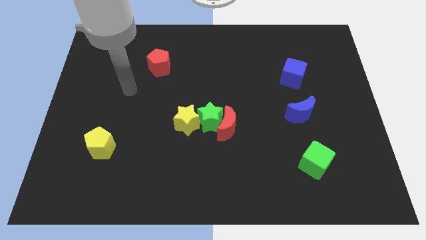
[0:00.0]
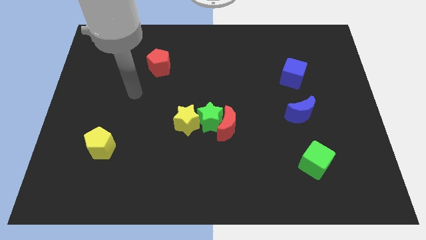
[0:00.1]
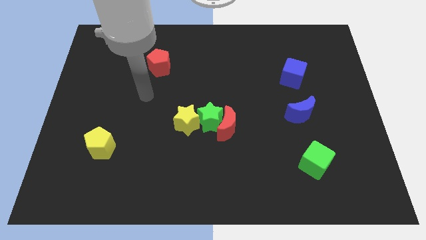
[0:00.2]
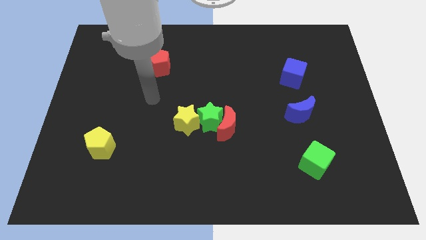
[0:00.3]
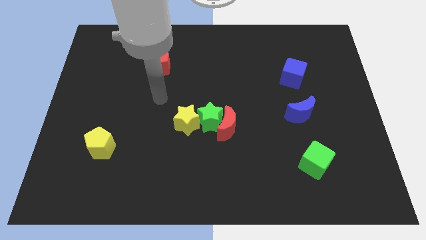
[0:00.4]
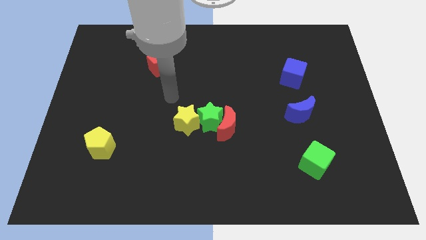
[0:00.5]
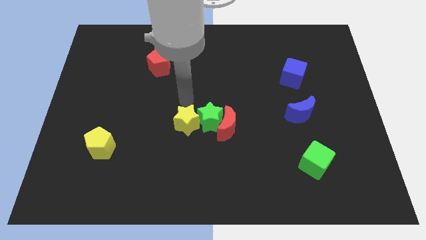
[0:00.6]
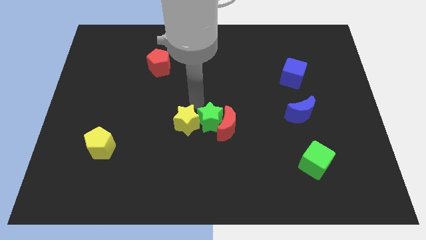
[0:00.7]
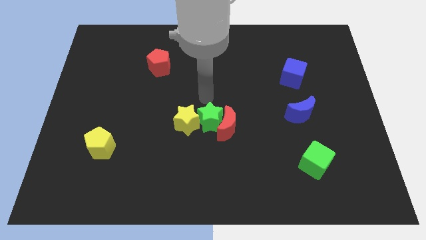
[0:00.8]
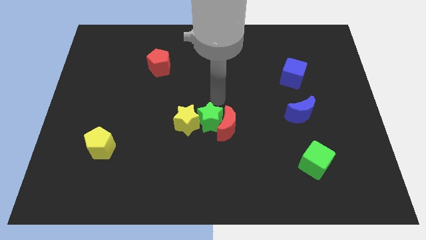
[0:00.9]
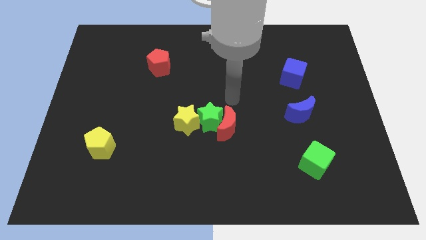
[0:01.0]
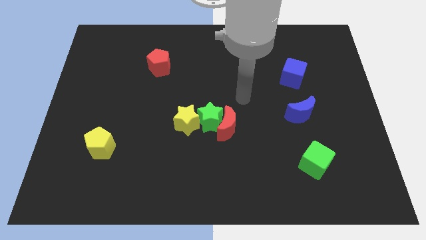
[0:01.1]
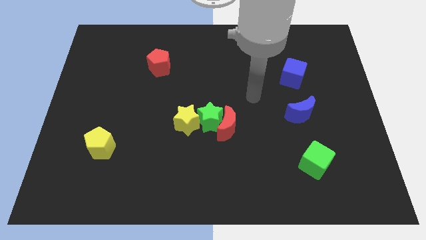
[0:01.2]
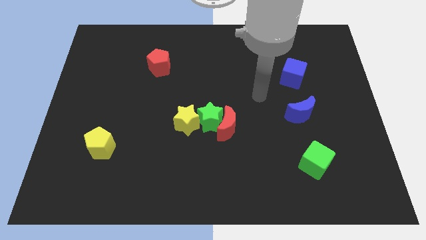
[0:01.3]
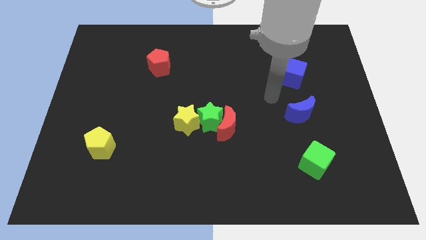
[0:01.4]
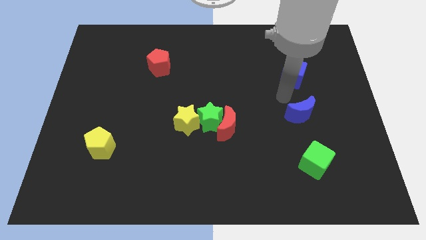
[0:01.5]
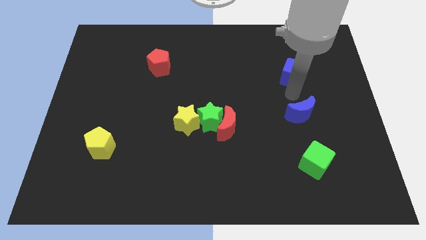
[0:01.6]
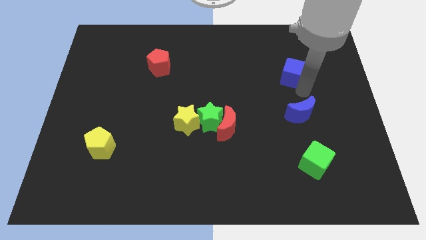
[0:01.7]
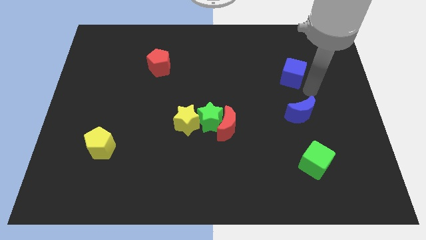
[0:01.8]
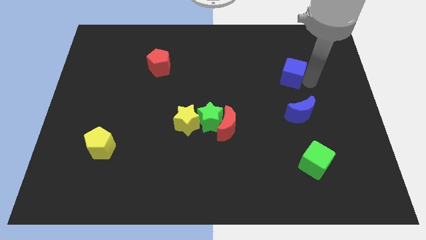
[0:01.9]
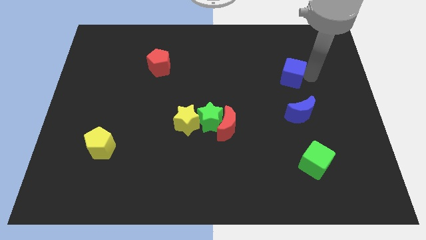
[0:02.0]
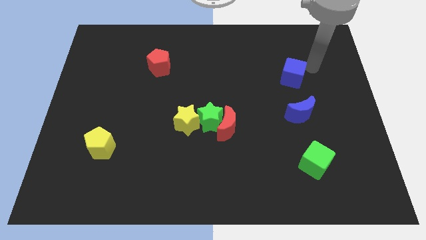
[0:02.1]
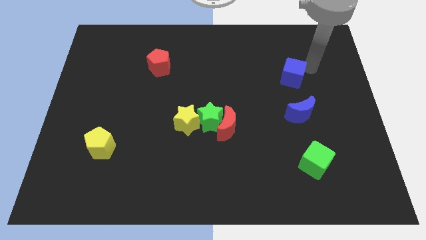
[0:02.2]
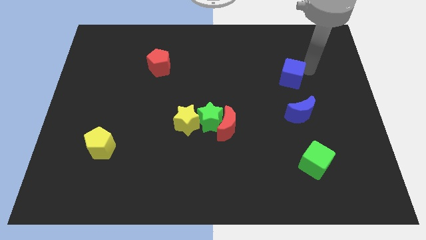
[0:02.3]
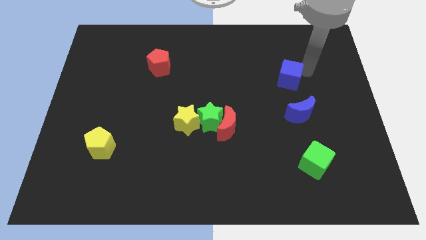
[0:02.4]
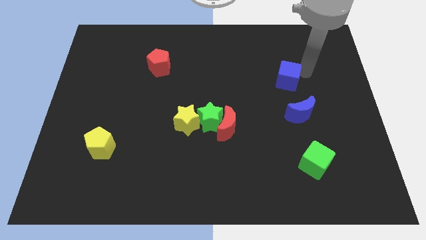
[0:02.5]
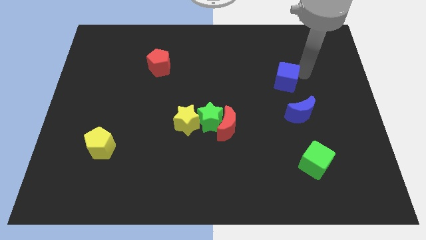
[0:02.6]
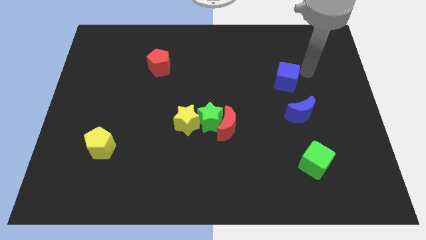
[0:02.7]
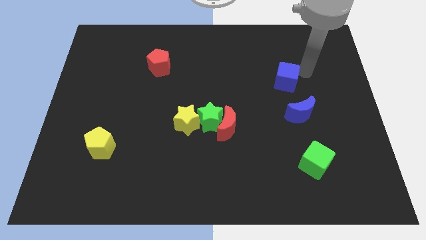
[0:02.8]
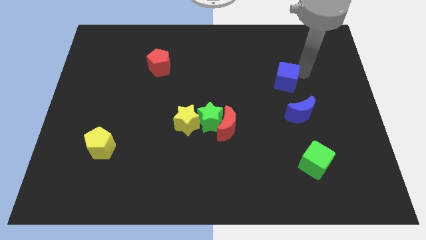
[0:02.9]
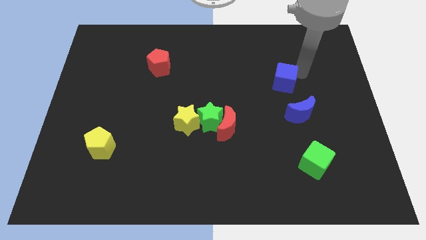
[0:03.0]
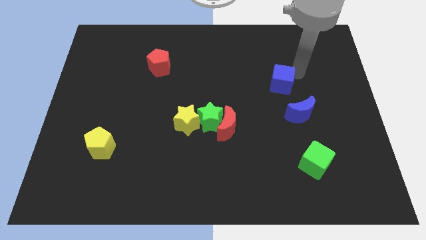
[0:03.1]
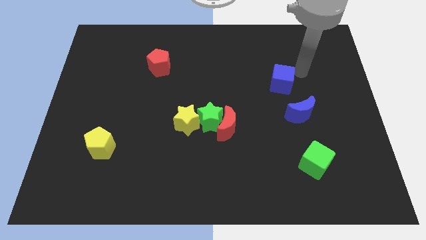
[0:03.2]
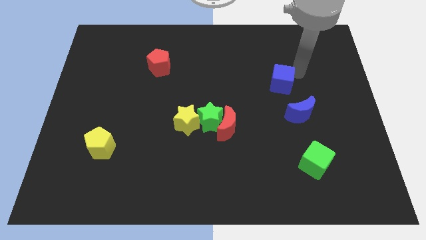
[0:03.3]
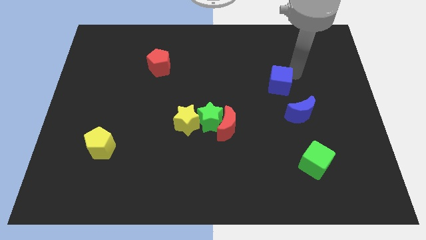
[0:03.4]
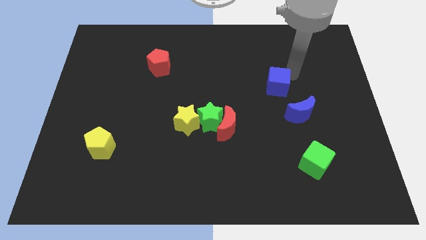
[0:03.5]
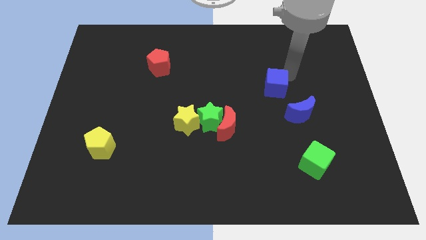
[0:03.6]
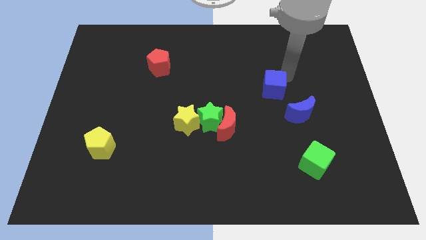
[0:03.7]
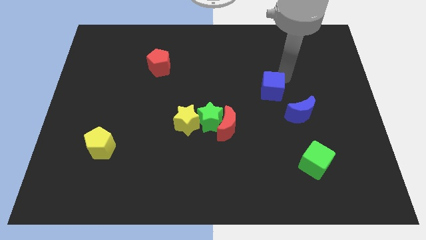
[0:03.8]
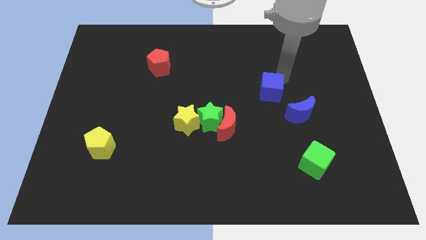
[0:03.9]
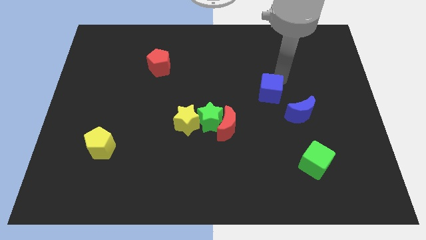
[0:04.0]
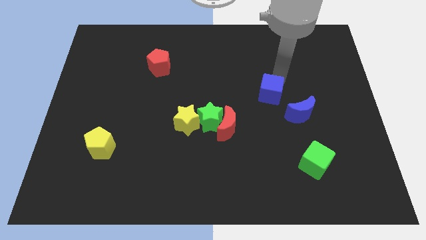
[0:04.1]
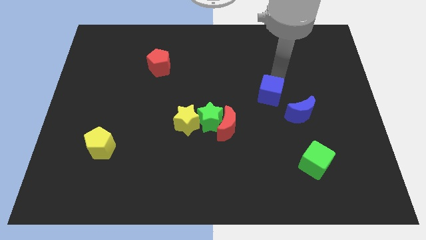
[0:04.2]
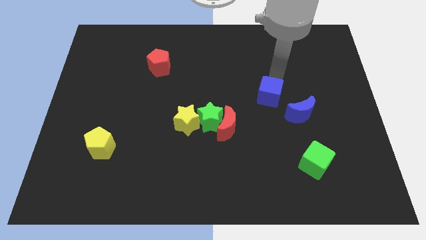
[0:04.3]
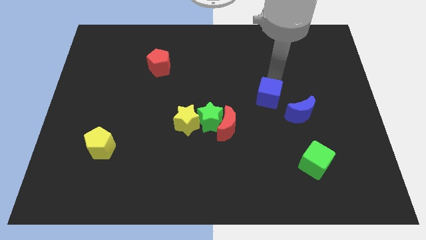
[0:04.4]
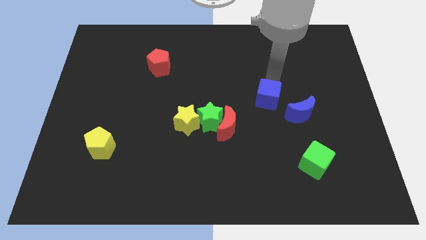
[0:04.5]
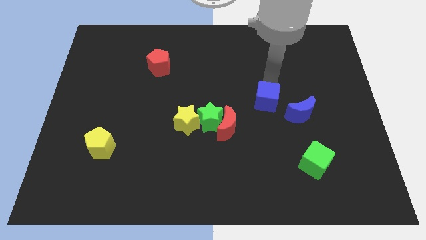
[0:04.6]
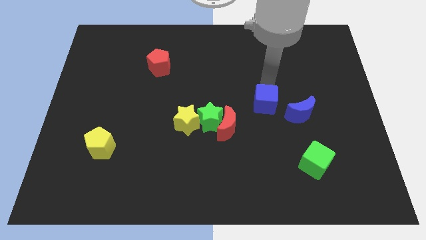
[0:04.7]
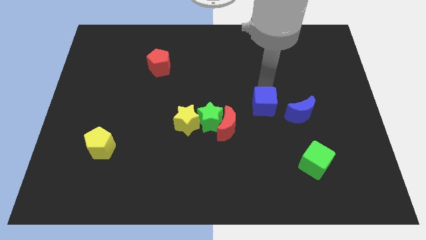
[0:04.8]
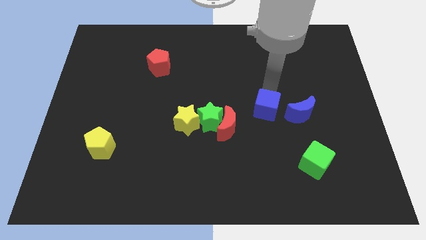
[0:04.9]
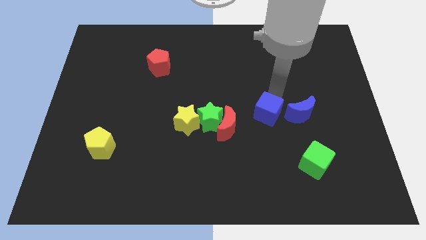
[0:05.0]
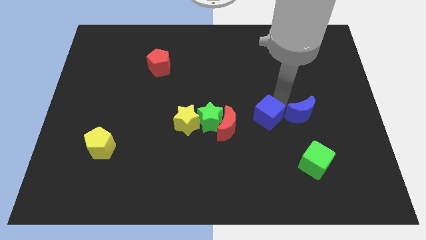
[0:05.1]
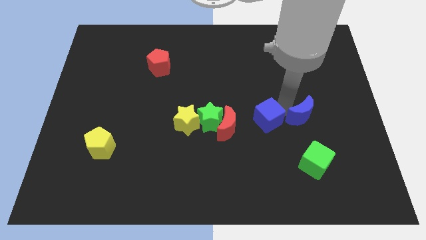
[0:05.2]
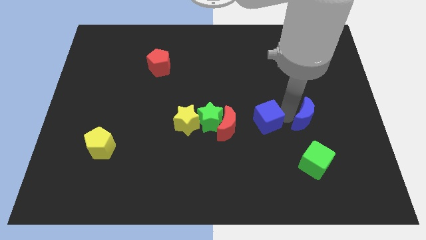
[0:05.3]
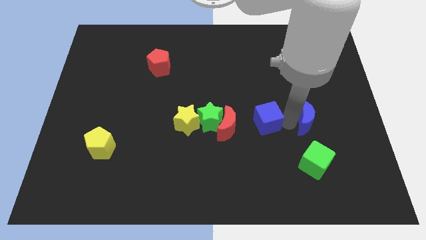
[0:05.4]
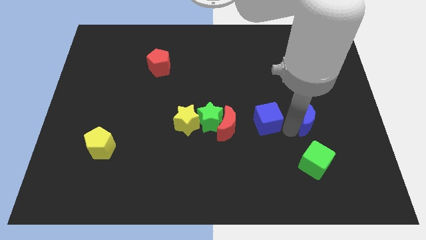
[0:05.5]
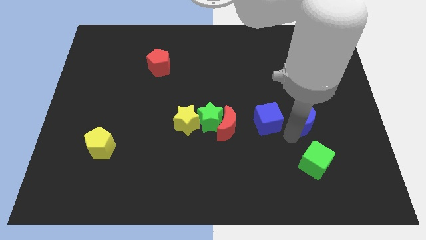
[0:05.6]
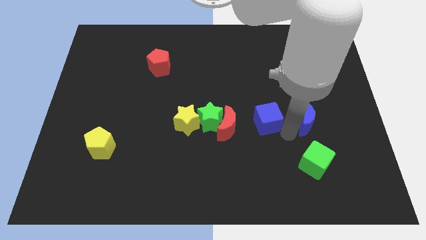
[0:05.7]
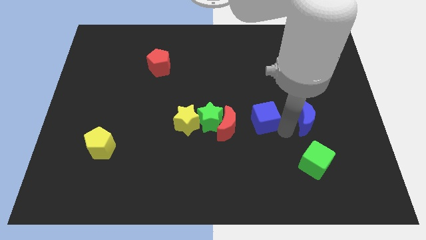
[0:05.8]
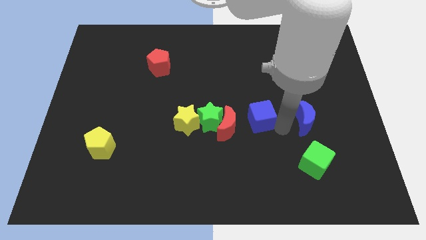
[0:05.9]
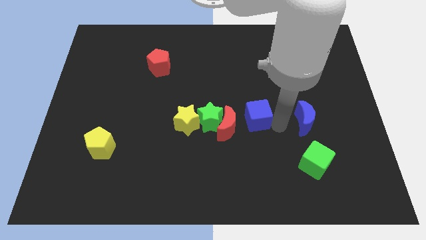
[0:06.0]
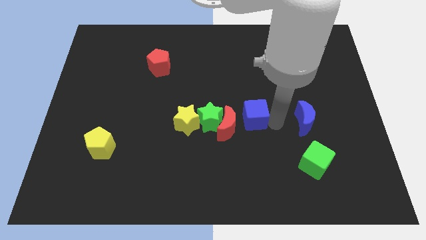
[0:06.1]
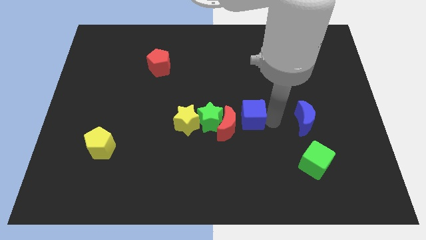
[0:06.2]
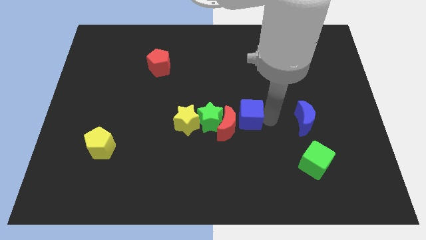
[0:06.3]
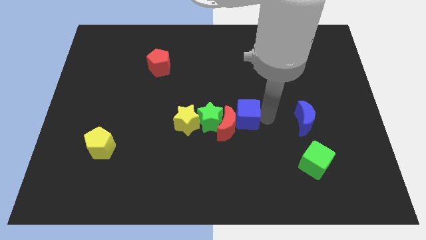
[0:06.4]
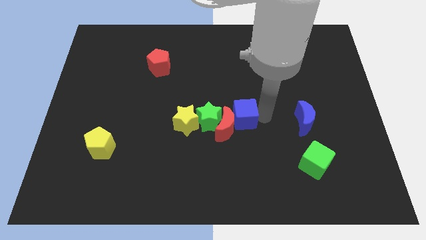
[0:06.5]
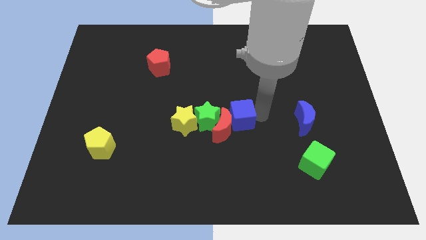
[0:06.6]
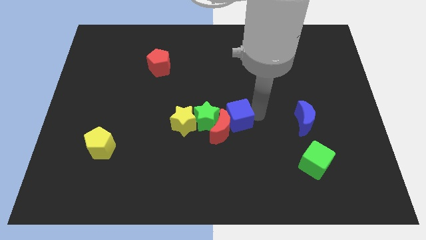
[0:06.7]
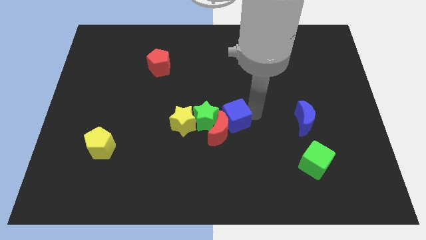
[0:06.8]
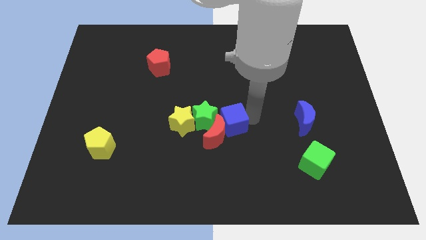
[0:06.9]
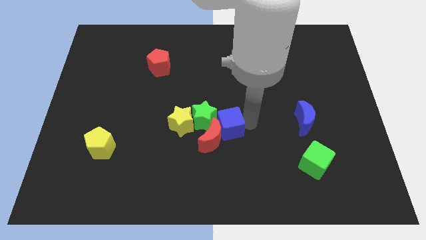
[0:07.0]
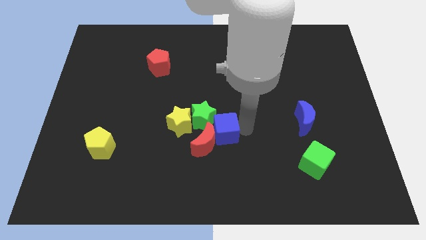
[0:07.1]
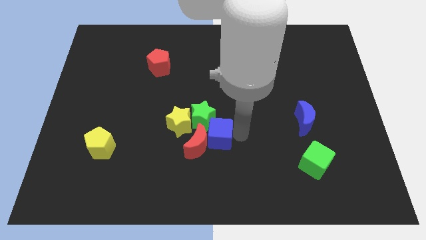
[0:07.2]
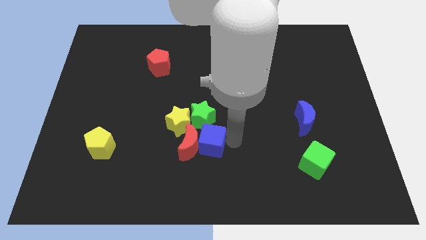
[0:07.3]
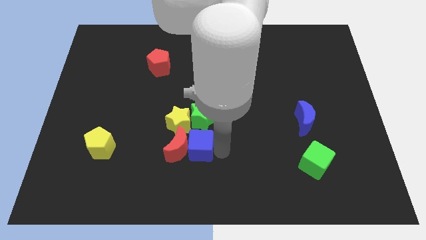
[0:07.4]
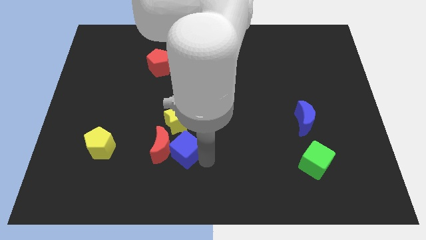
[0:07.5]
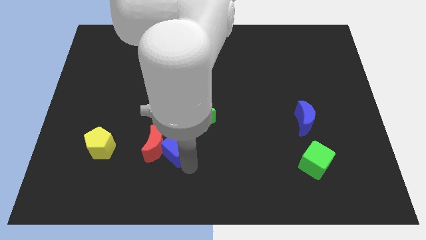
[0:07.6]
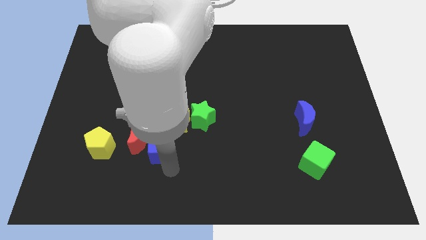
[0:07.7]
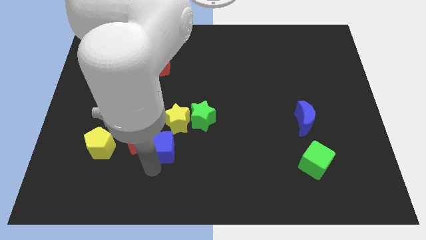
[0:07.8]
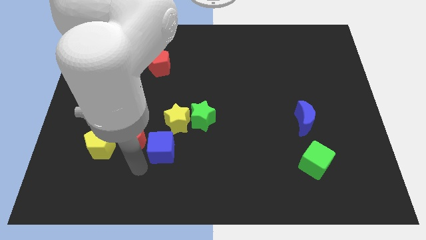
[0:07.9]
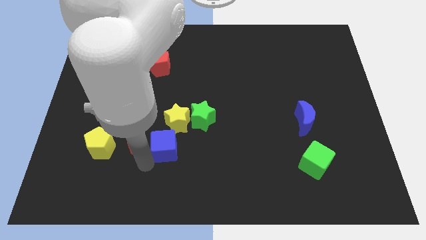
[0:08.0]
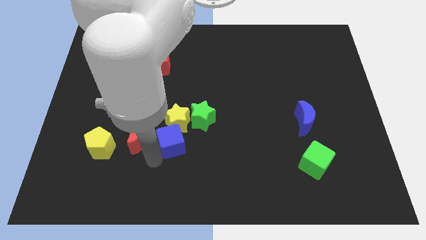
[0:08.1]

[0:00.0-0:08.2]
push the blue cube towards the yellow star
